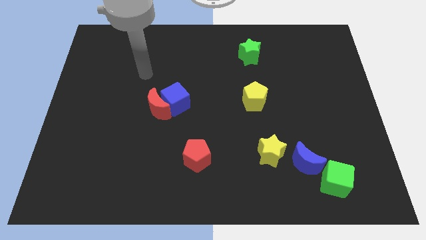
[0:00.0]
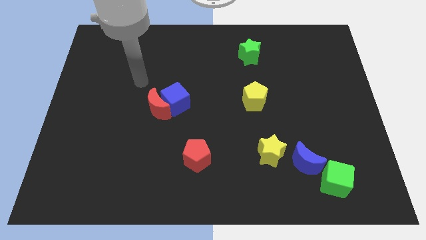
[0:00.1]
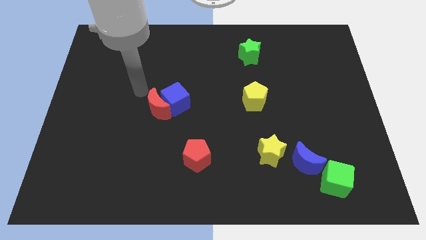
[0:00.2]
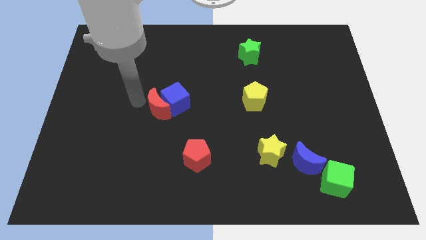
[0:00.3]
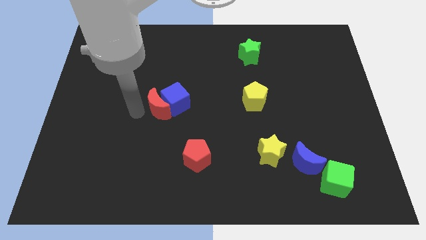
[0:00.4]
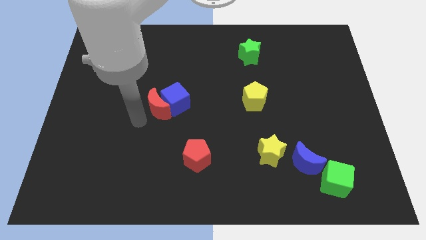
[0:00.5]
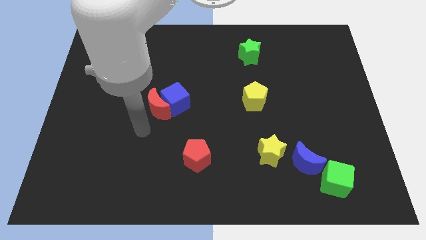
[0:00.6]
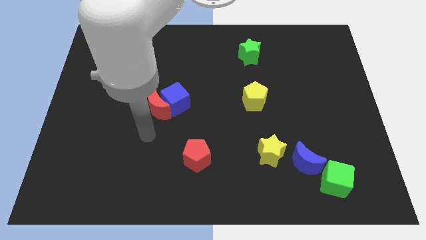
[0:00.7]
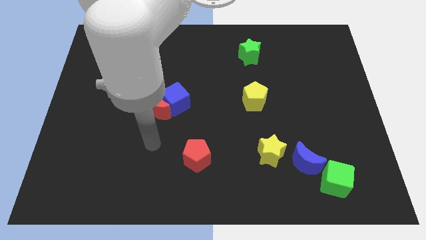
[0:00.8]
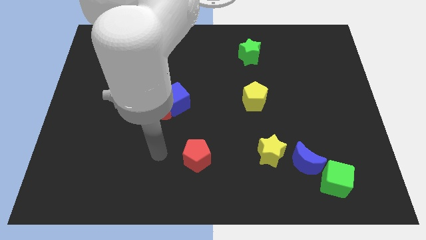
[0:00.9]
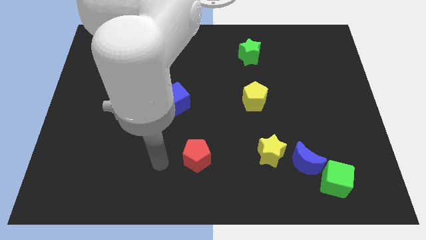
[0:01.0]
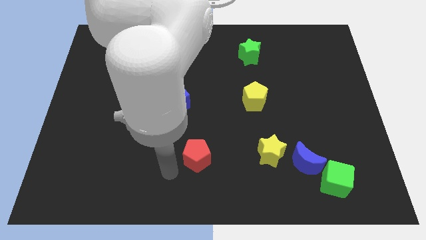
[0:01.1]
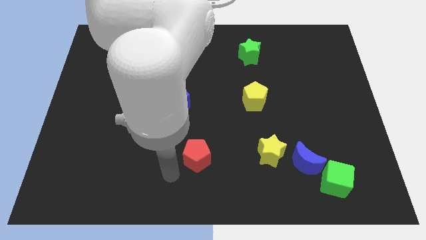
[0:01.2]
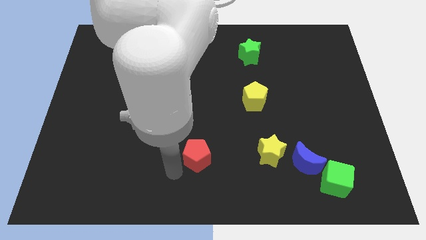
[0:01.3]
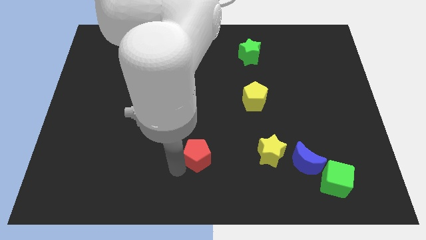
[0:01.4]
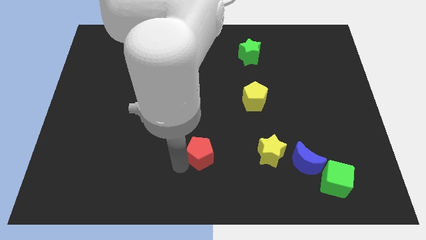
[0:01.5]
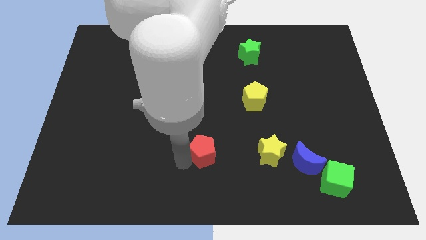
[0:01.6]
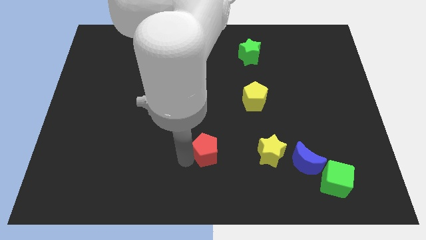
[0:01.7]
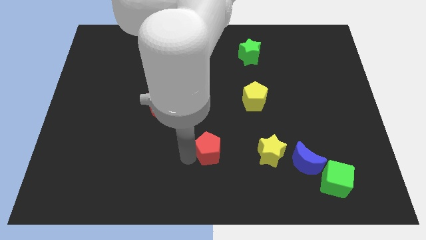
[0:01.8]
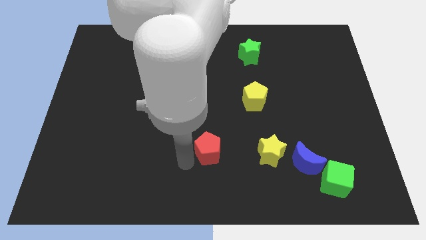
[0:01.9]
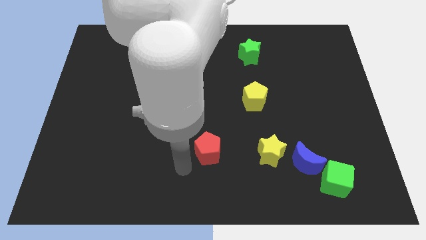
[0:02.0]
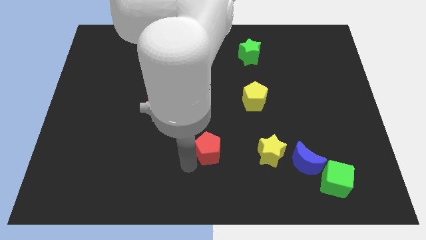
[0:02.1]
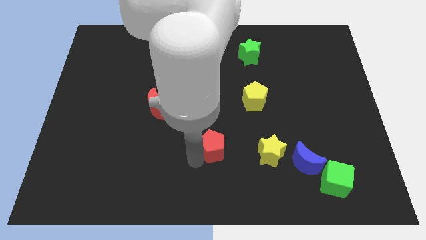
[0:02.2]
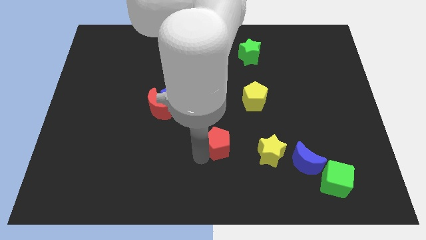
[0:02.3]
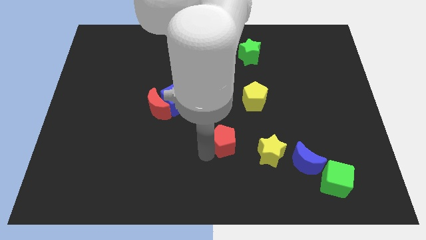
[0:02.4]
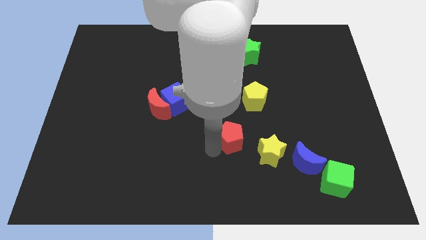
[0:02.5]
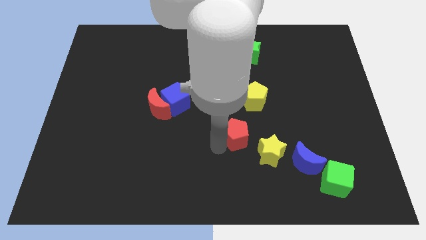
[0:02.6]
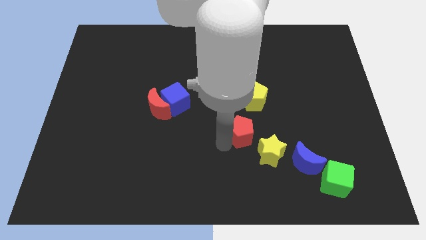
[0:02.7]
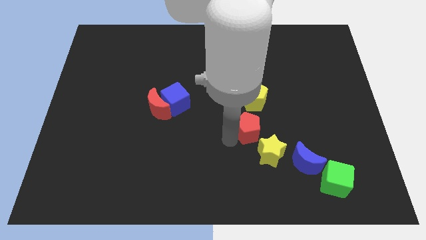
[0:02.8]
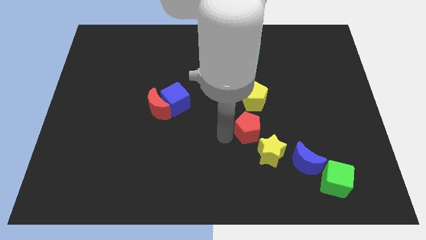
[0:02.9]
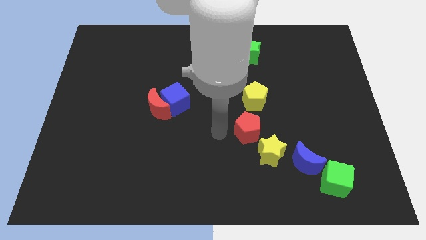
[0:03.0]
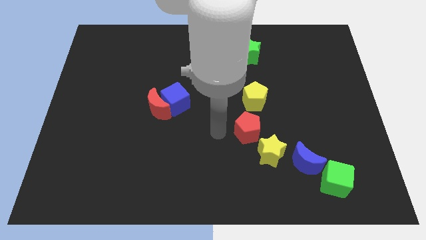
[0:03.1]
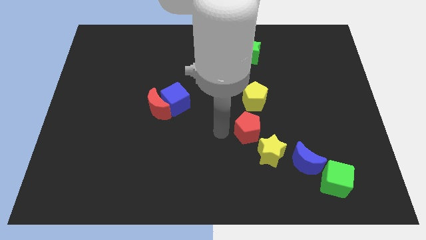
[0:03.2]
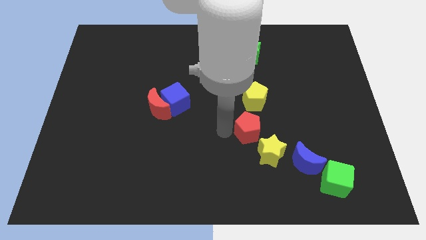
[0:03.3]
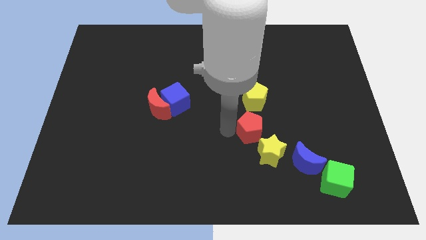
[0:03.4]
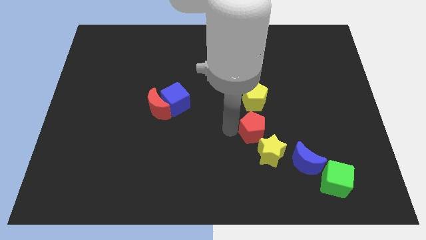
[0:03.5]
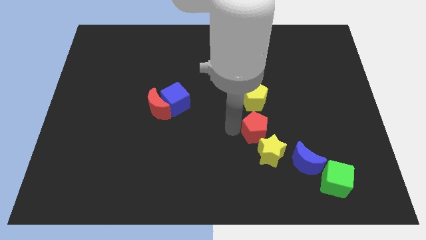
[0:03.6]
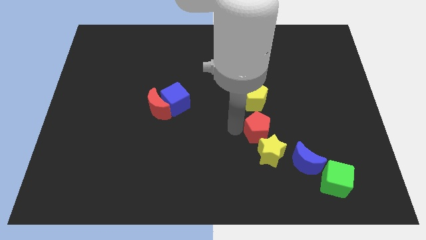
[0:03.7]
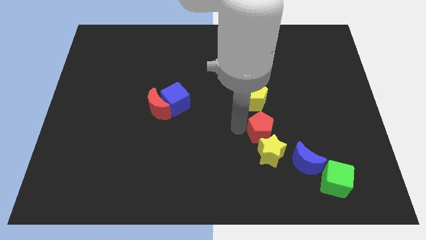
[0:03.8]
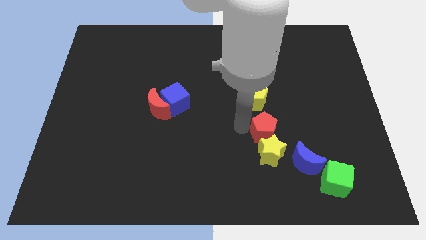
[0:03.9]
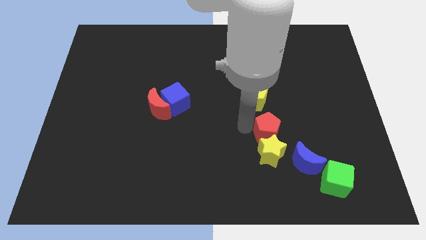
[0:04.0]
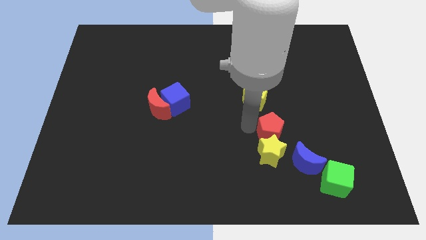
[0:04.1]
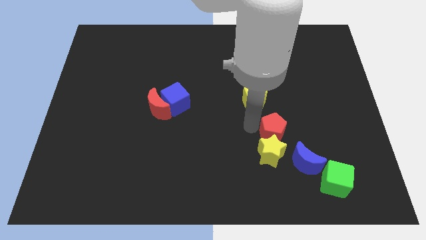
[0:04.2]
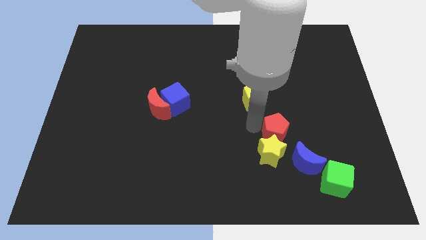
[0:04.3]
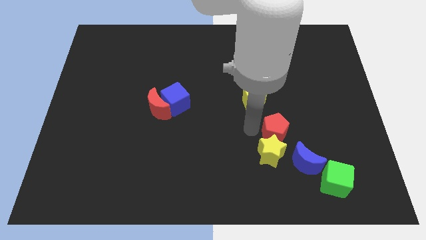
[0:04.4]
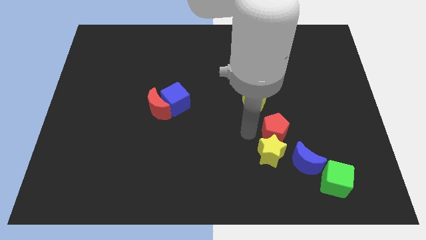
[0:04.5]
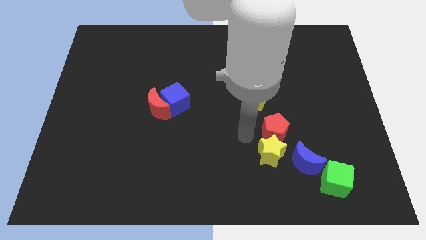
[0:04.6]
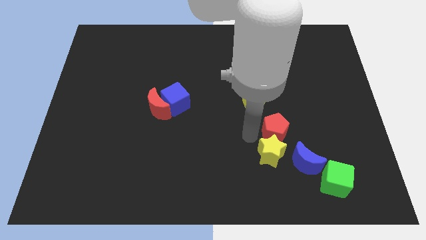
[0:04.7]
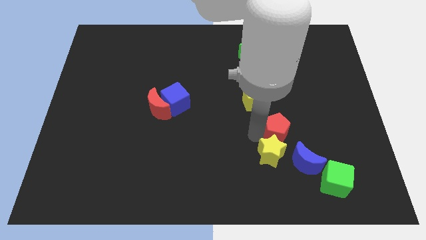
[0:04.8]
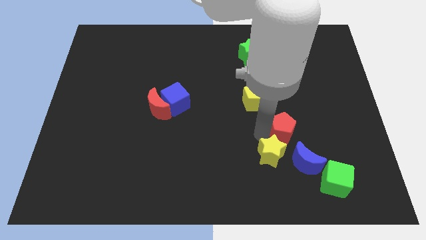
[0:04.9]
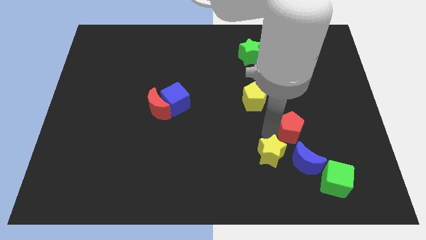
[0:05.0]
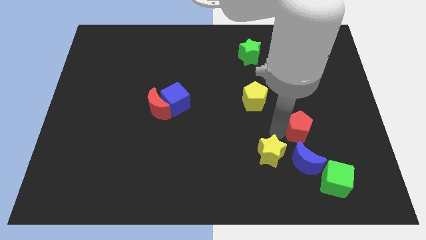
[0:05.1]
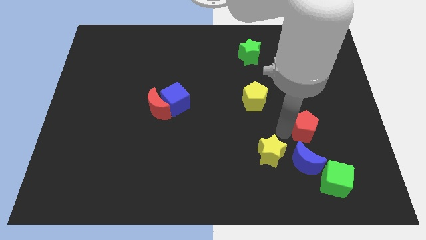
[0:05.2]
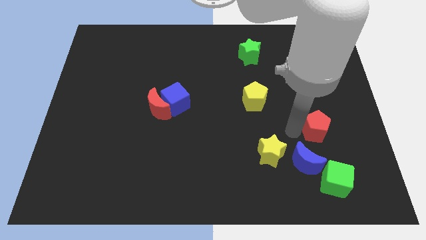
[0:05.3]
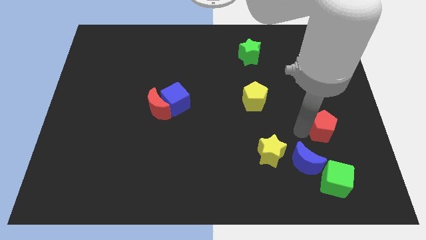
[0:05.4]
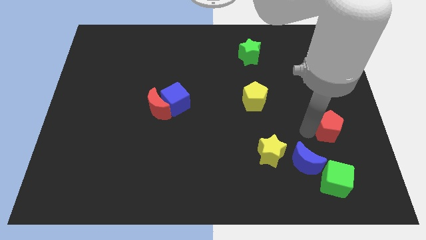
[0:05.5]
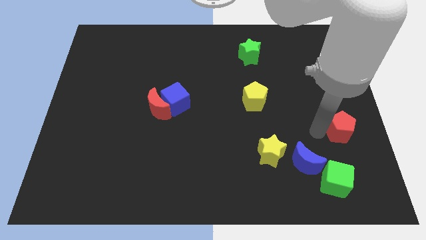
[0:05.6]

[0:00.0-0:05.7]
put the red pentagon to the right side

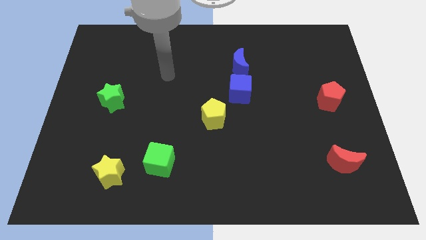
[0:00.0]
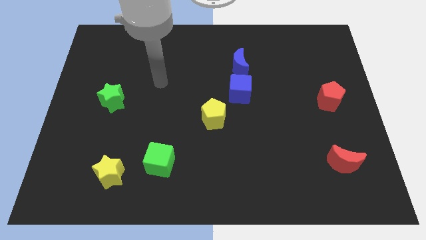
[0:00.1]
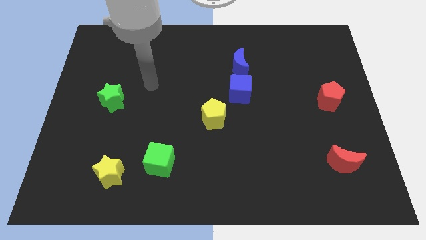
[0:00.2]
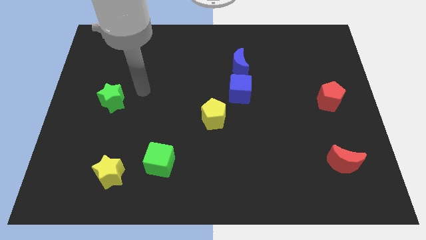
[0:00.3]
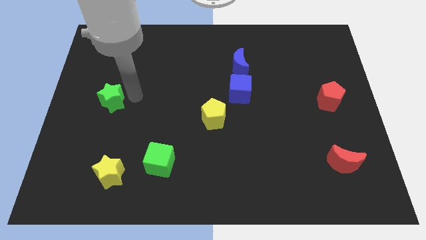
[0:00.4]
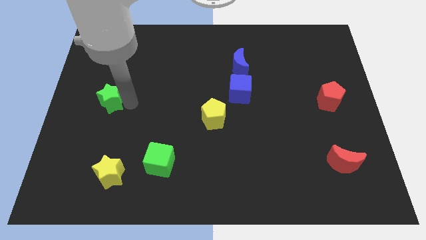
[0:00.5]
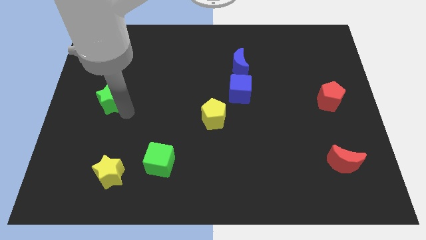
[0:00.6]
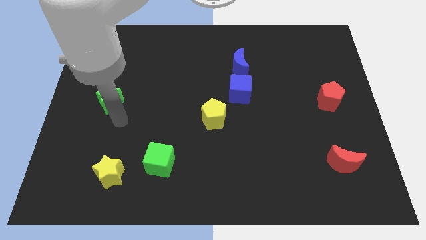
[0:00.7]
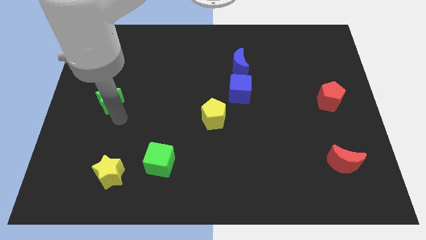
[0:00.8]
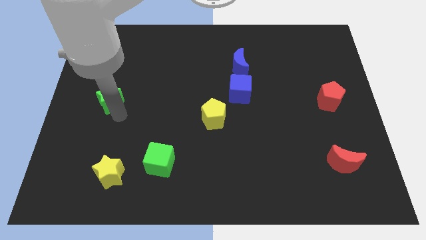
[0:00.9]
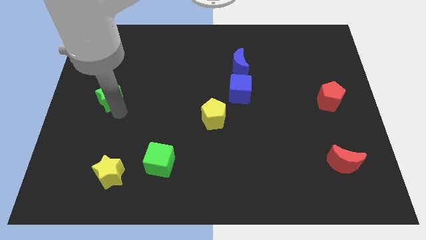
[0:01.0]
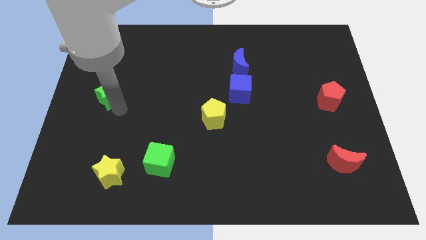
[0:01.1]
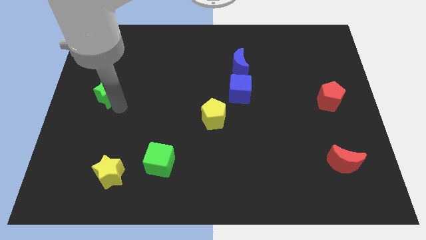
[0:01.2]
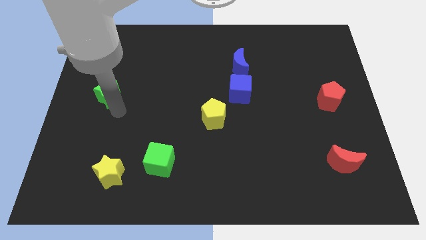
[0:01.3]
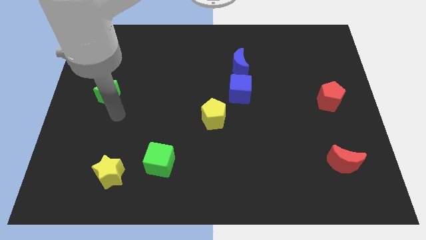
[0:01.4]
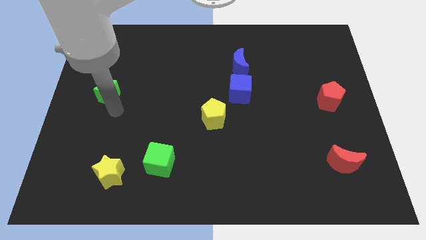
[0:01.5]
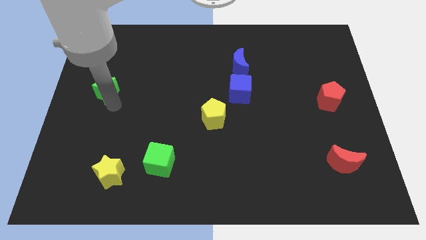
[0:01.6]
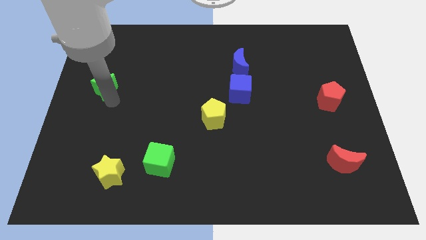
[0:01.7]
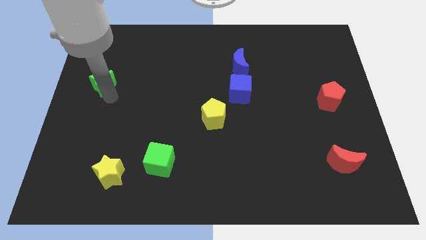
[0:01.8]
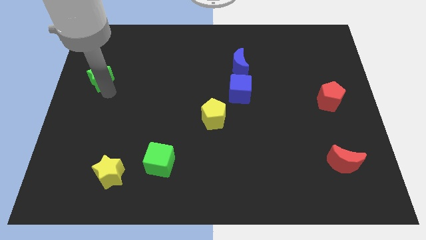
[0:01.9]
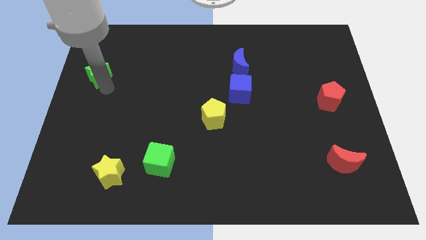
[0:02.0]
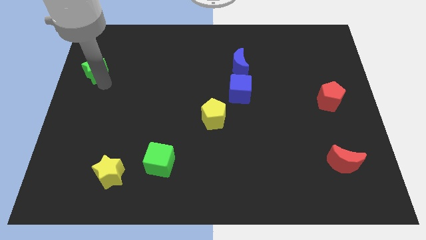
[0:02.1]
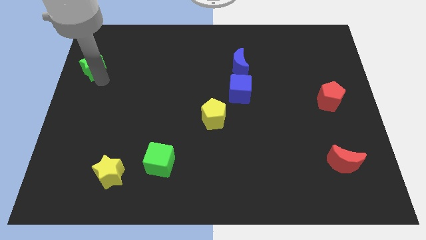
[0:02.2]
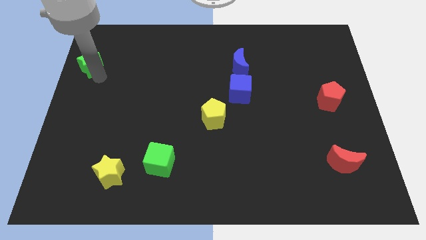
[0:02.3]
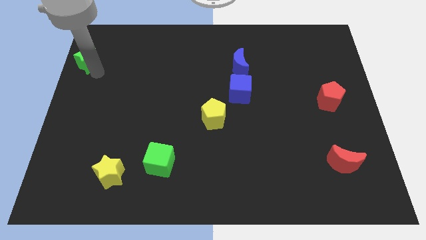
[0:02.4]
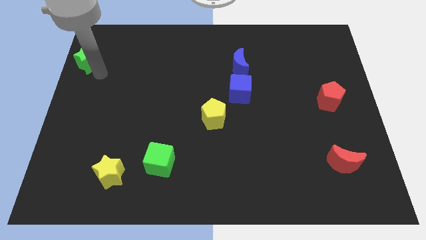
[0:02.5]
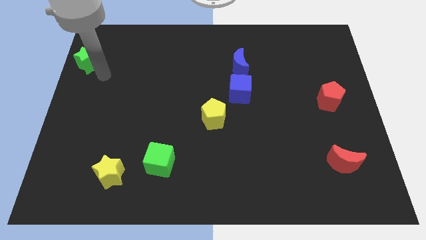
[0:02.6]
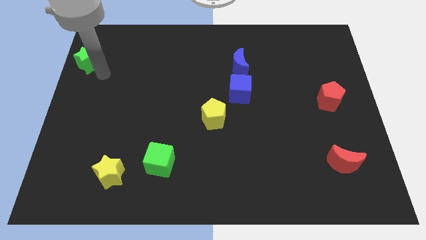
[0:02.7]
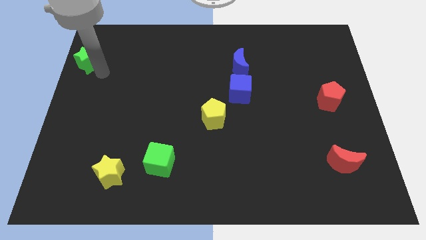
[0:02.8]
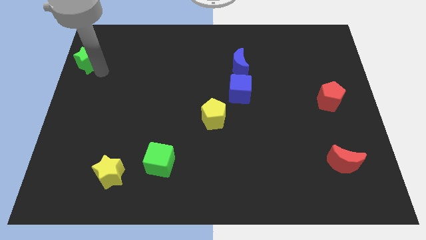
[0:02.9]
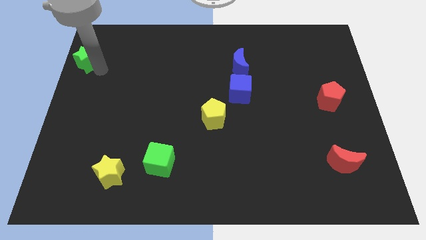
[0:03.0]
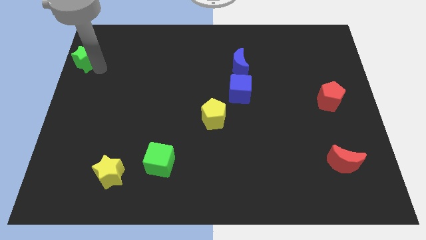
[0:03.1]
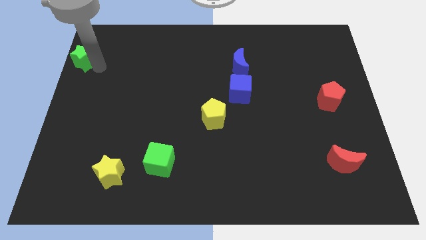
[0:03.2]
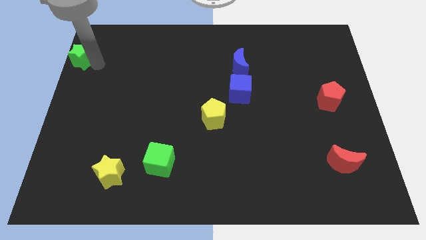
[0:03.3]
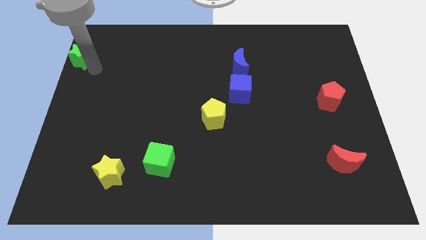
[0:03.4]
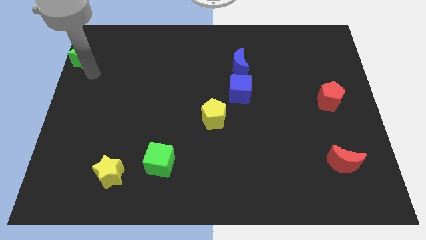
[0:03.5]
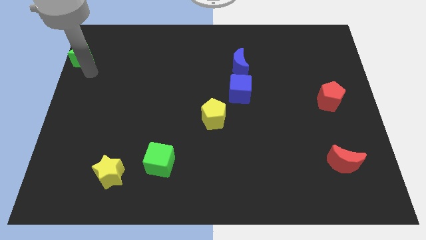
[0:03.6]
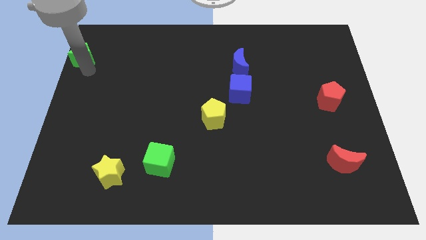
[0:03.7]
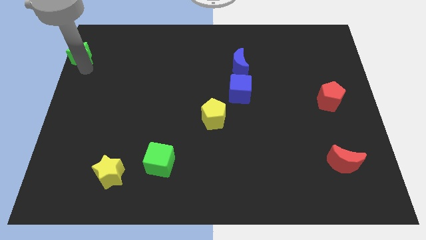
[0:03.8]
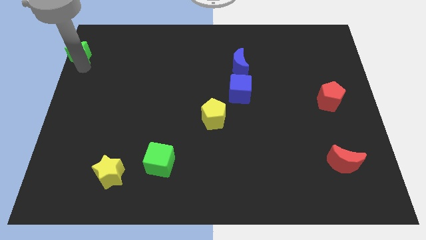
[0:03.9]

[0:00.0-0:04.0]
move the green star to the top left
